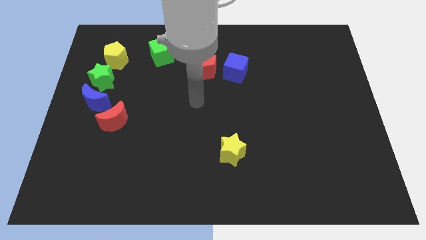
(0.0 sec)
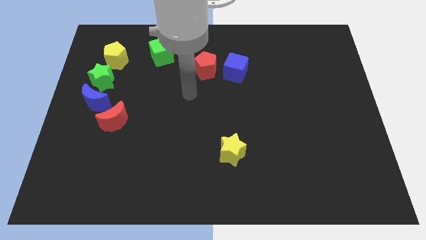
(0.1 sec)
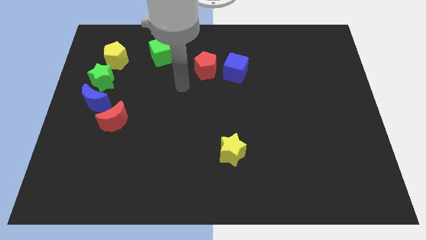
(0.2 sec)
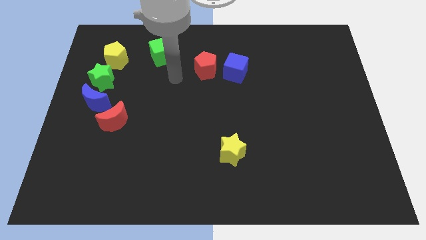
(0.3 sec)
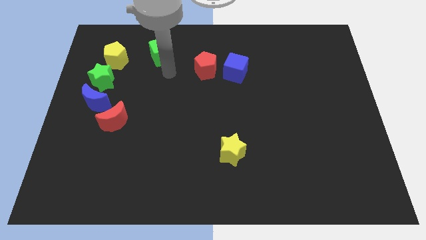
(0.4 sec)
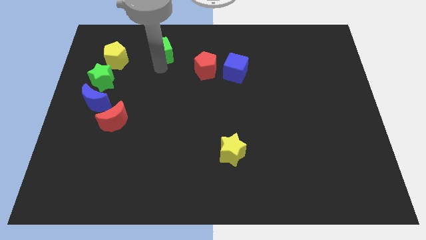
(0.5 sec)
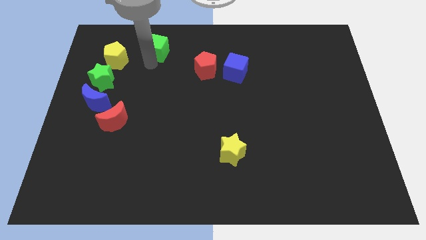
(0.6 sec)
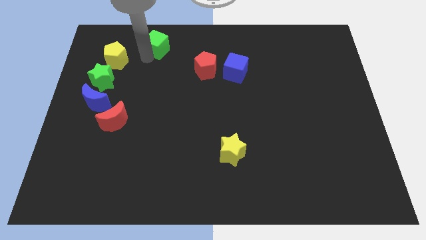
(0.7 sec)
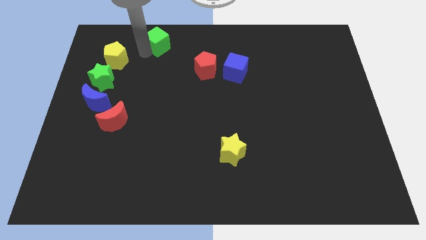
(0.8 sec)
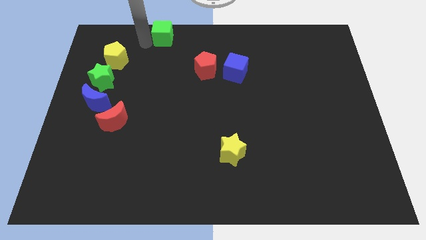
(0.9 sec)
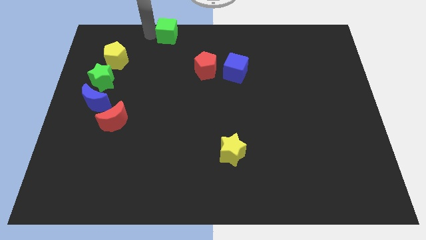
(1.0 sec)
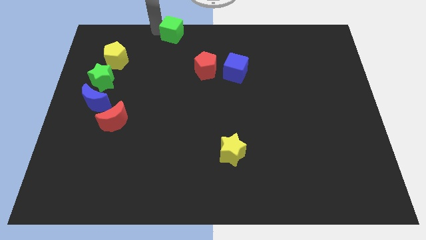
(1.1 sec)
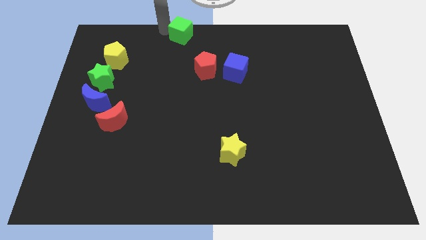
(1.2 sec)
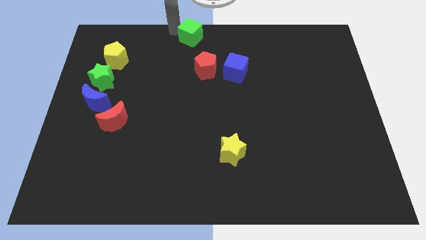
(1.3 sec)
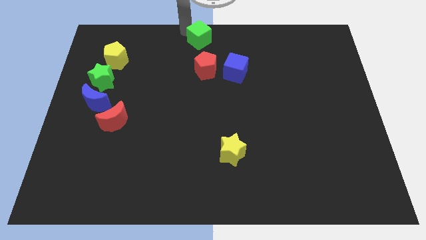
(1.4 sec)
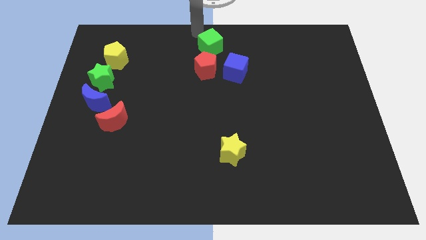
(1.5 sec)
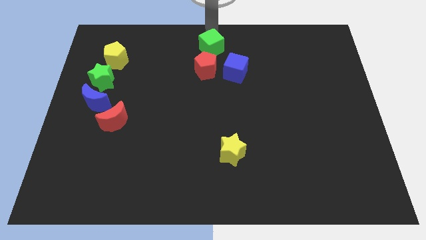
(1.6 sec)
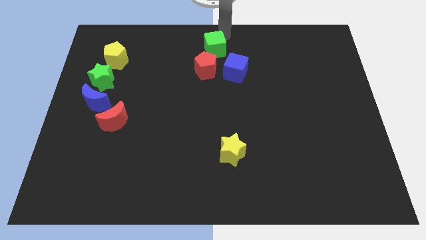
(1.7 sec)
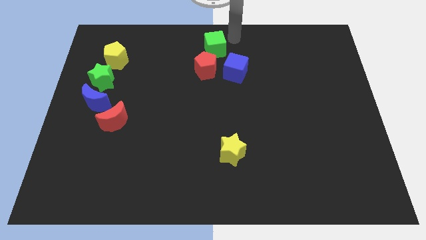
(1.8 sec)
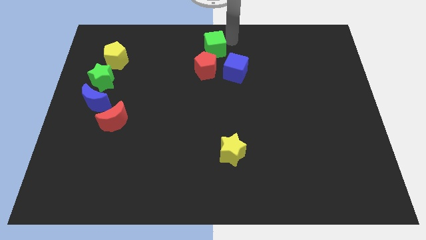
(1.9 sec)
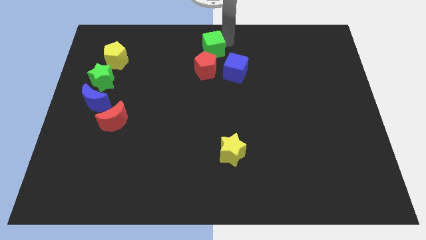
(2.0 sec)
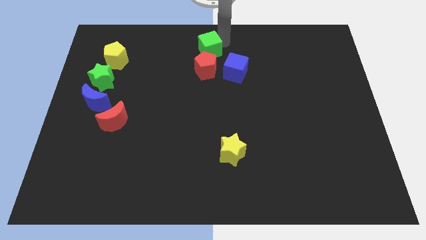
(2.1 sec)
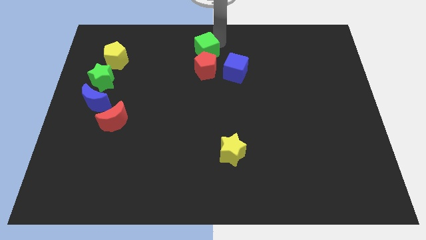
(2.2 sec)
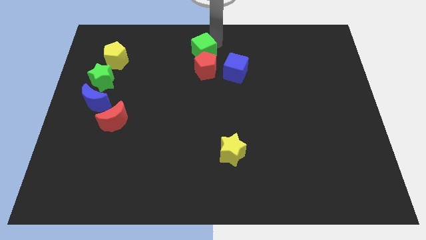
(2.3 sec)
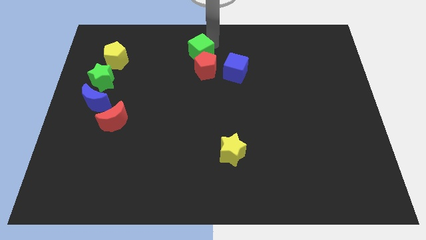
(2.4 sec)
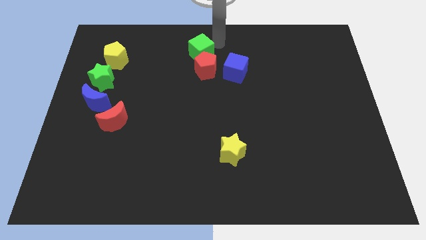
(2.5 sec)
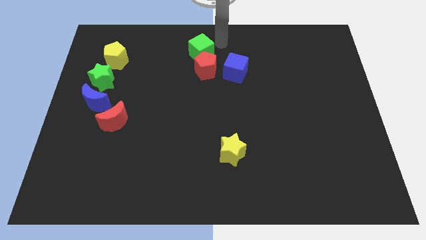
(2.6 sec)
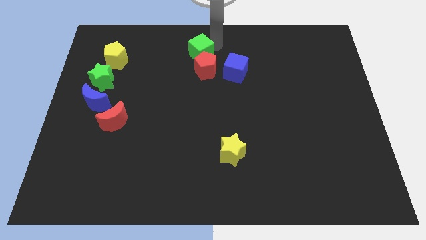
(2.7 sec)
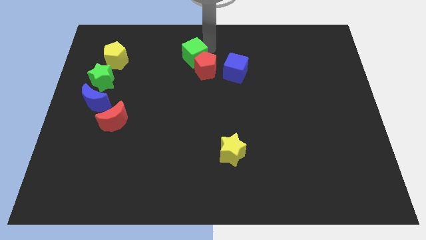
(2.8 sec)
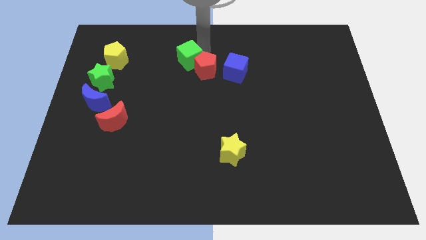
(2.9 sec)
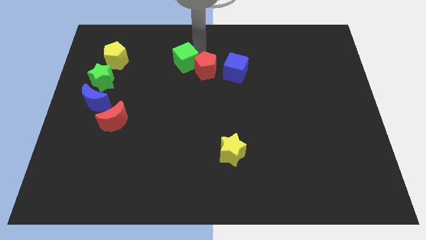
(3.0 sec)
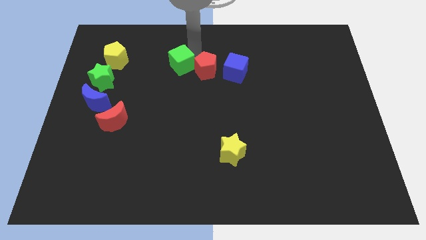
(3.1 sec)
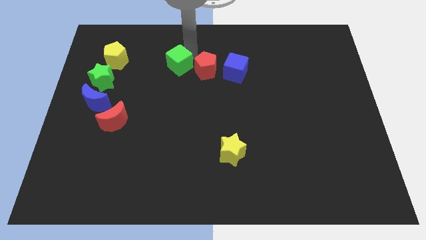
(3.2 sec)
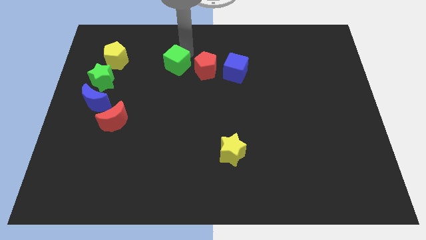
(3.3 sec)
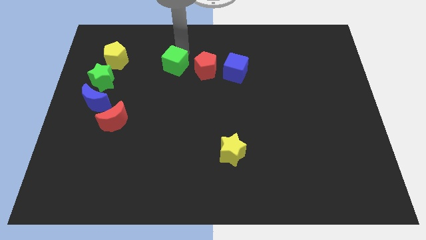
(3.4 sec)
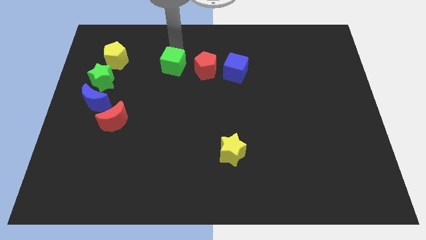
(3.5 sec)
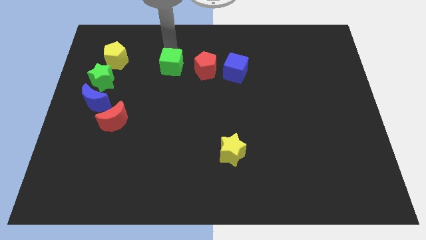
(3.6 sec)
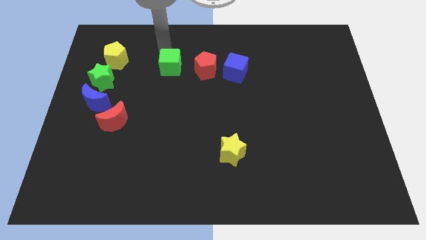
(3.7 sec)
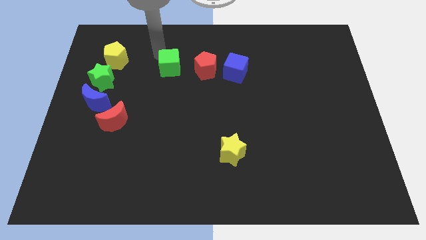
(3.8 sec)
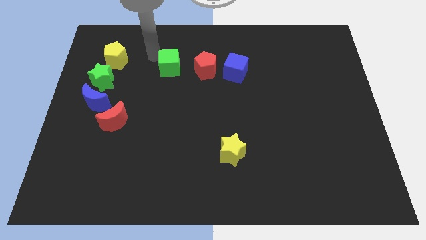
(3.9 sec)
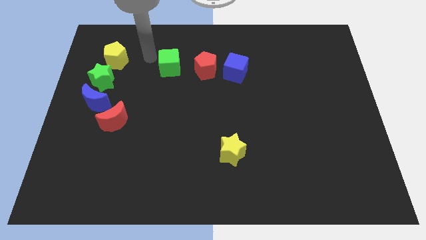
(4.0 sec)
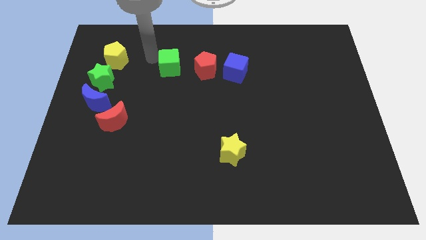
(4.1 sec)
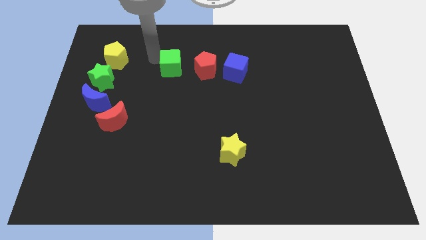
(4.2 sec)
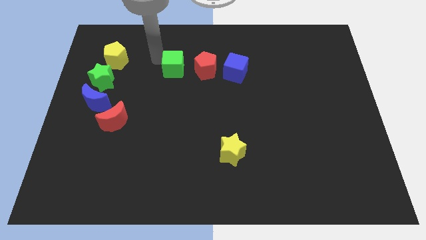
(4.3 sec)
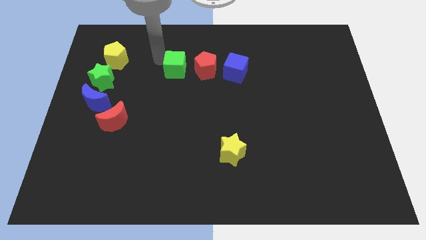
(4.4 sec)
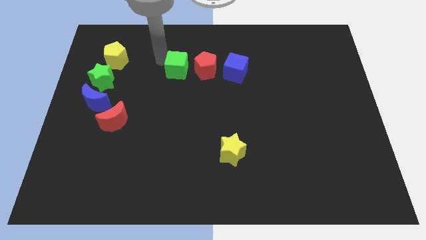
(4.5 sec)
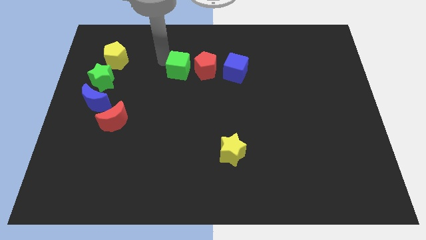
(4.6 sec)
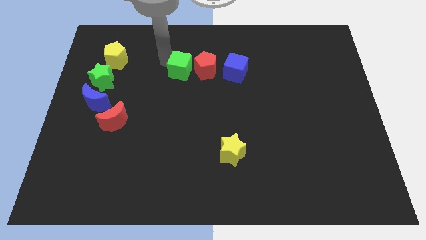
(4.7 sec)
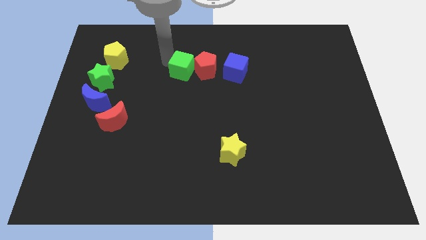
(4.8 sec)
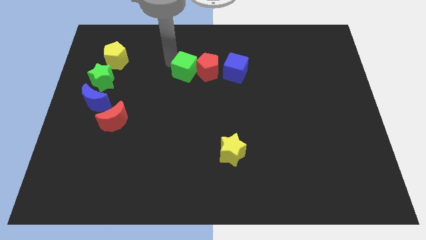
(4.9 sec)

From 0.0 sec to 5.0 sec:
put the green cube to the center of the board

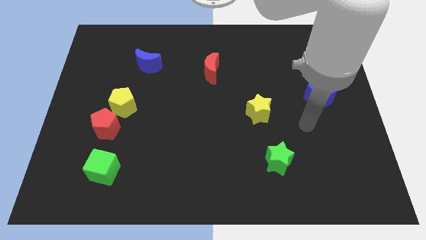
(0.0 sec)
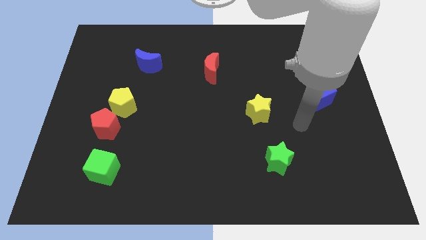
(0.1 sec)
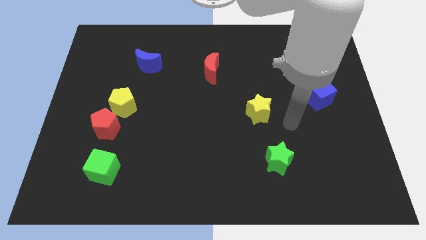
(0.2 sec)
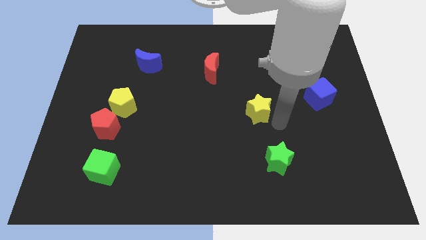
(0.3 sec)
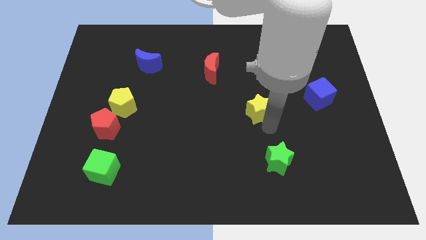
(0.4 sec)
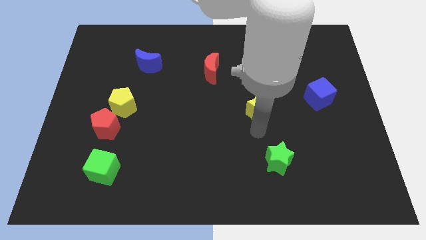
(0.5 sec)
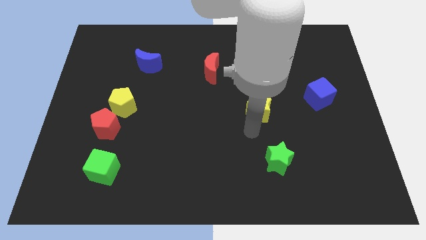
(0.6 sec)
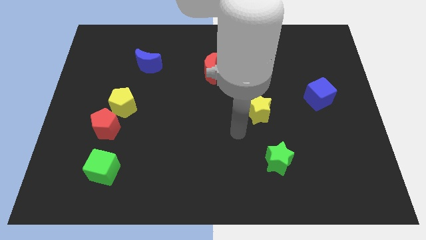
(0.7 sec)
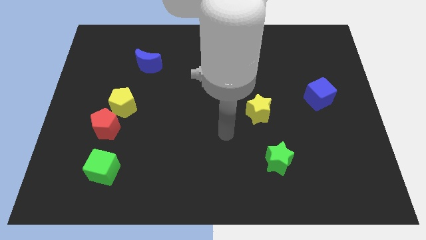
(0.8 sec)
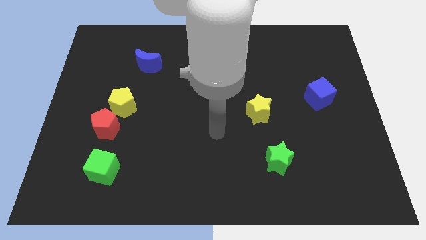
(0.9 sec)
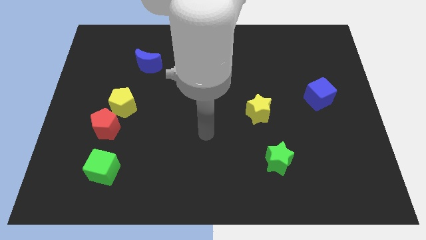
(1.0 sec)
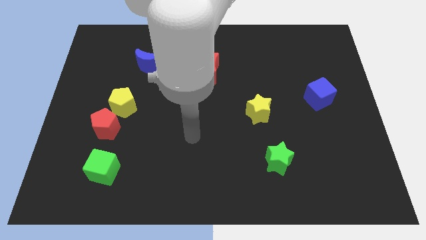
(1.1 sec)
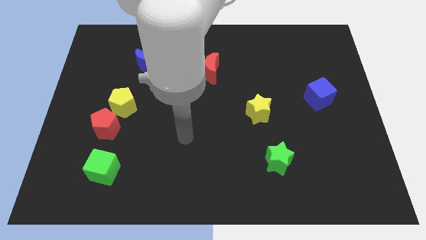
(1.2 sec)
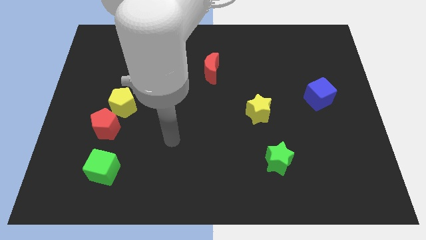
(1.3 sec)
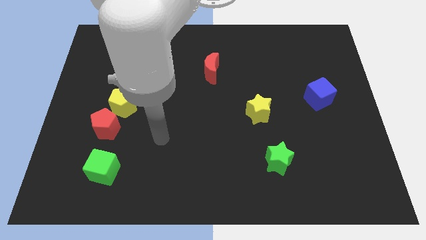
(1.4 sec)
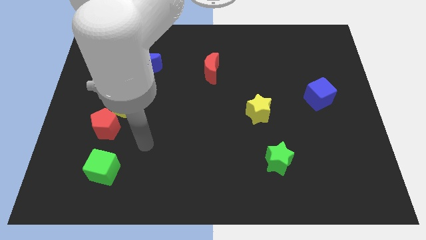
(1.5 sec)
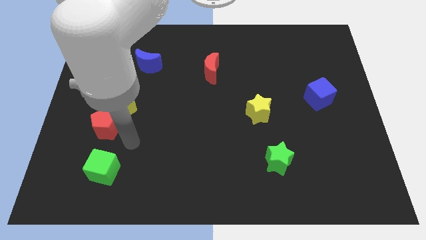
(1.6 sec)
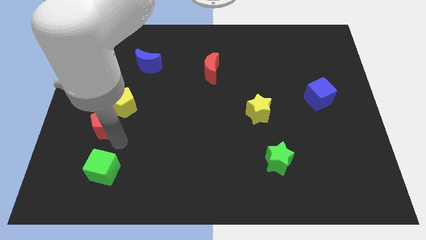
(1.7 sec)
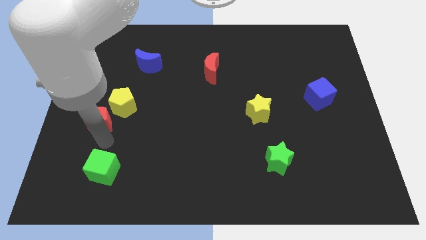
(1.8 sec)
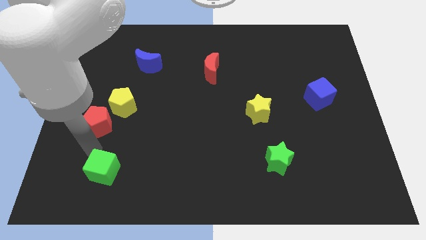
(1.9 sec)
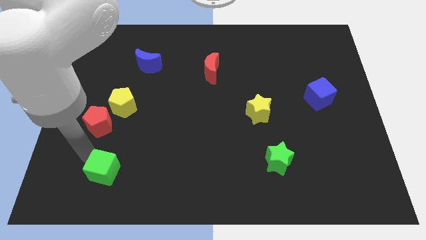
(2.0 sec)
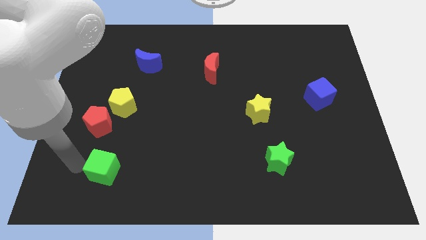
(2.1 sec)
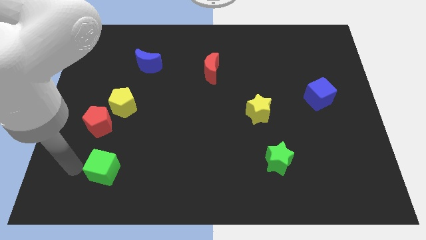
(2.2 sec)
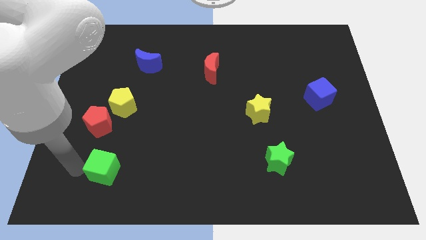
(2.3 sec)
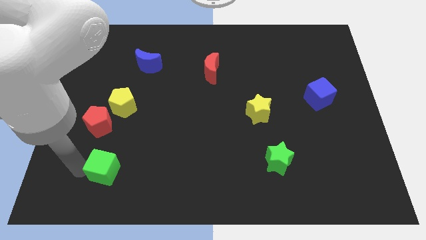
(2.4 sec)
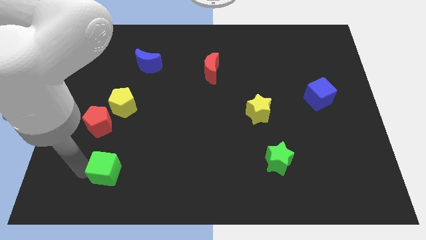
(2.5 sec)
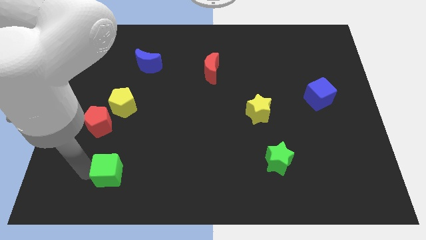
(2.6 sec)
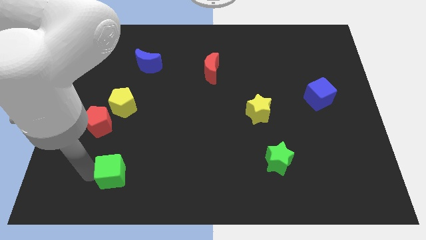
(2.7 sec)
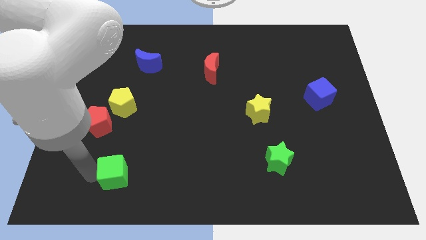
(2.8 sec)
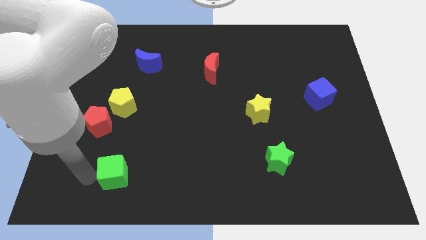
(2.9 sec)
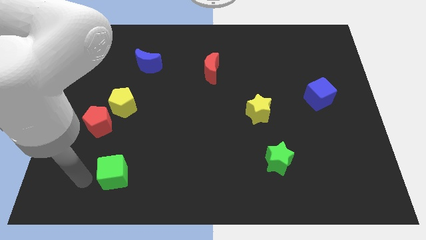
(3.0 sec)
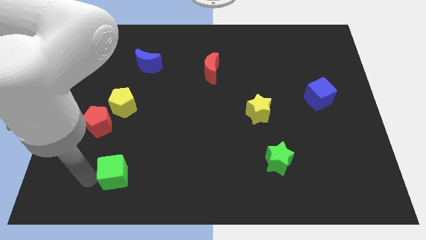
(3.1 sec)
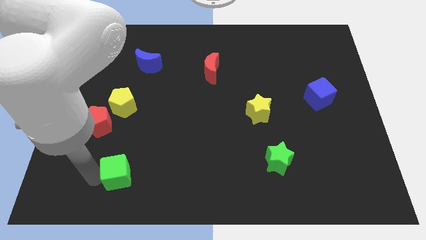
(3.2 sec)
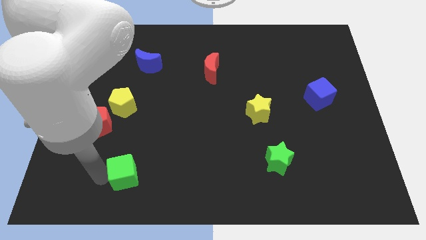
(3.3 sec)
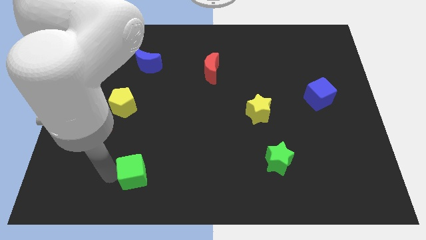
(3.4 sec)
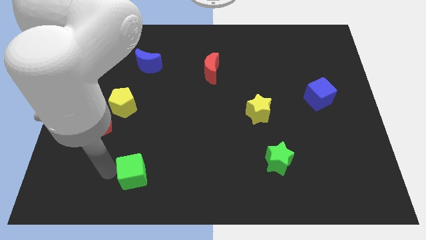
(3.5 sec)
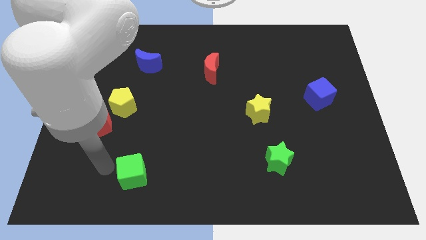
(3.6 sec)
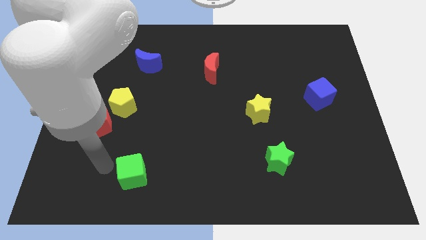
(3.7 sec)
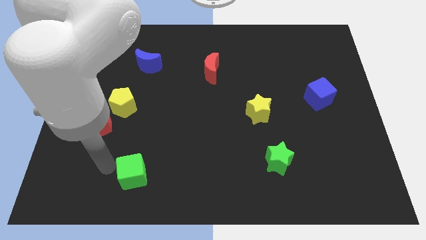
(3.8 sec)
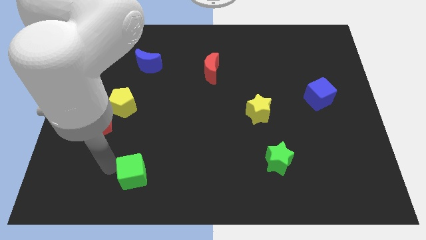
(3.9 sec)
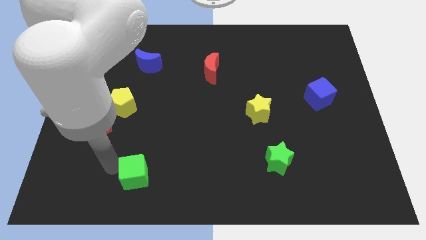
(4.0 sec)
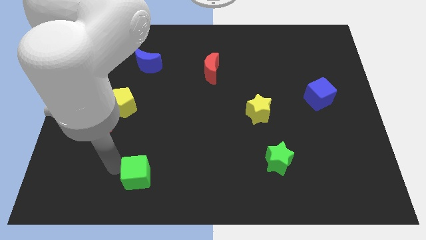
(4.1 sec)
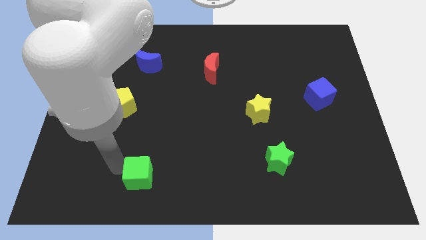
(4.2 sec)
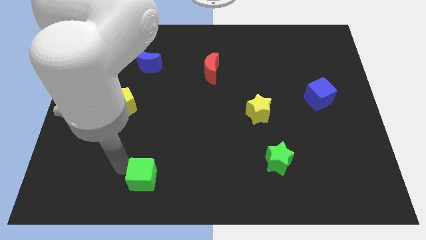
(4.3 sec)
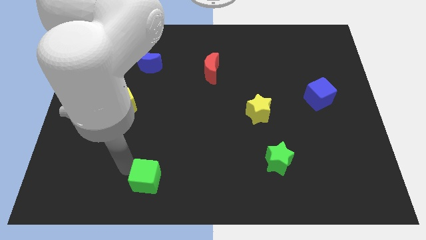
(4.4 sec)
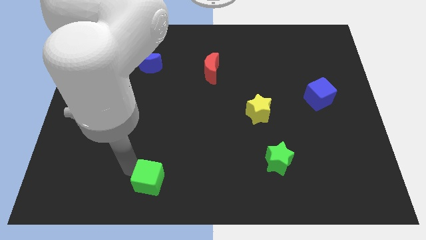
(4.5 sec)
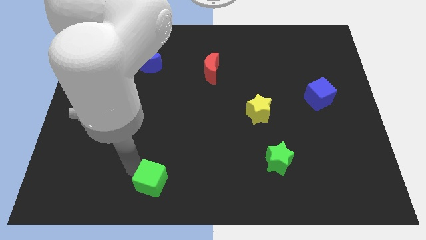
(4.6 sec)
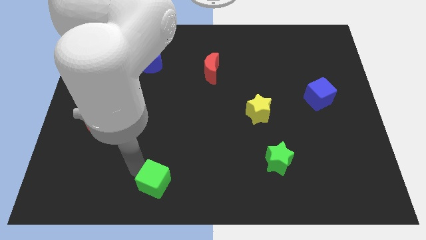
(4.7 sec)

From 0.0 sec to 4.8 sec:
move the green cube to the bottom side
